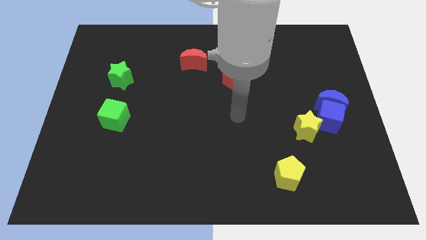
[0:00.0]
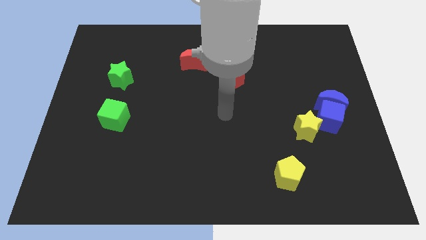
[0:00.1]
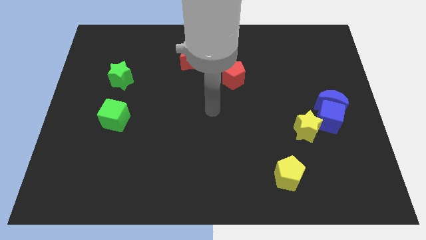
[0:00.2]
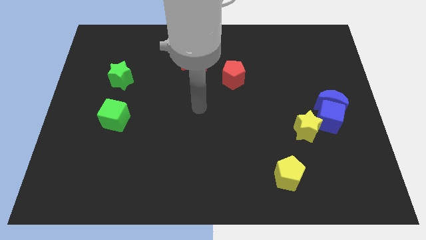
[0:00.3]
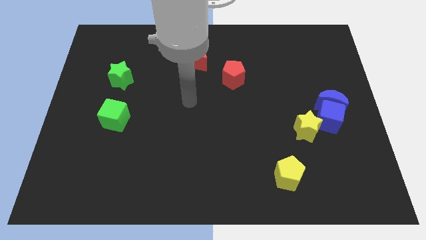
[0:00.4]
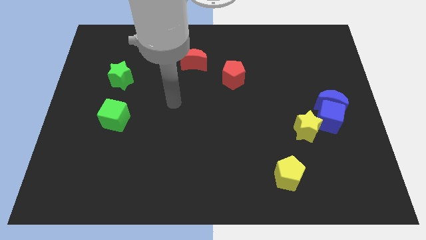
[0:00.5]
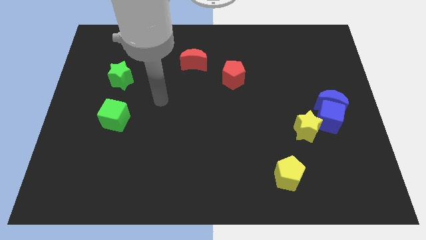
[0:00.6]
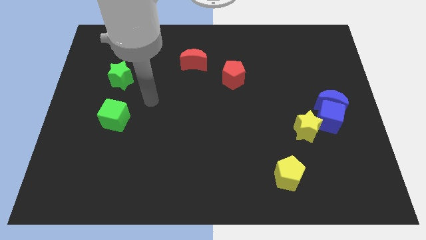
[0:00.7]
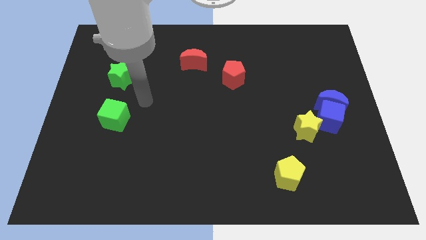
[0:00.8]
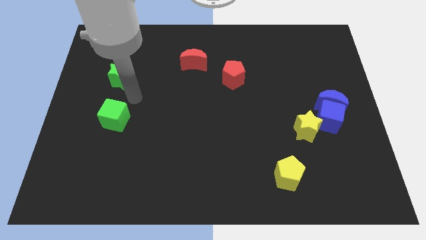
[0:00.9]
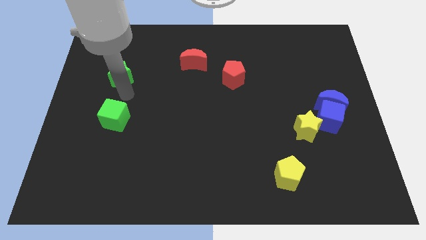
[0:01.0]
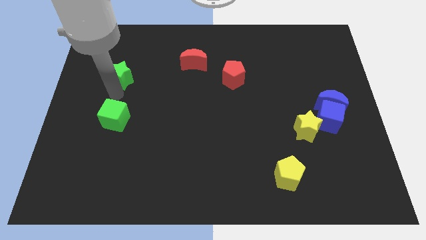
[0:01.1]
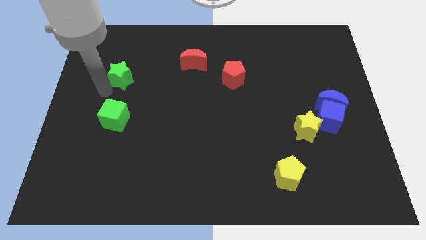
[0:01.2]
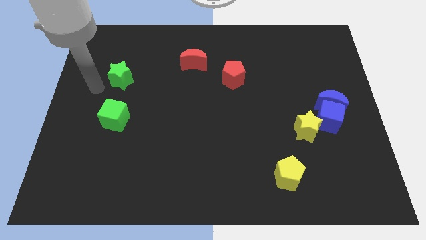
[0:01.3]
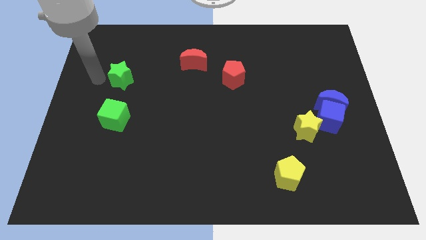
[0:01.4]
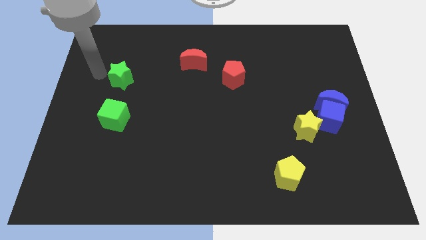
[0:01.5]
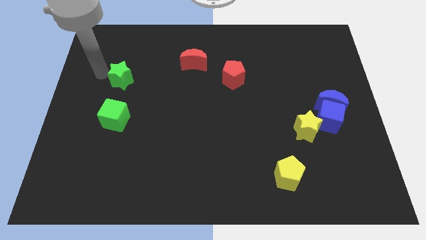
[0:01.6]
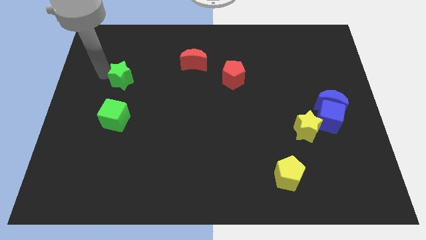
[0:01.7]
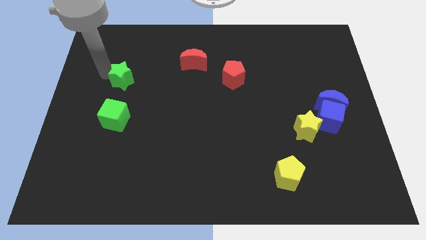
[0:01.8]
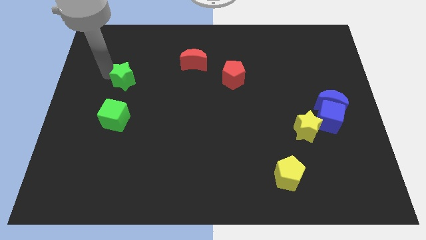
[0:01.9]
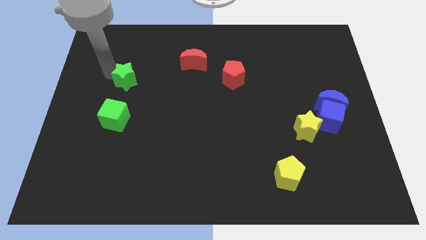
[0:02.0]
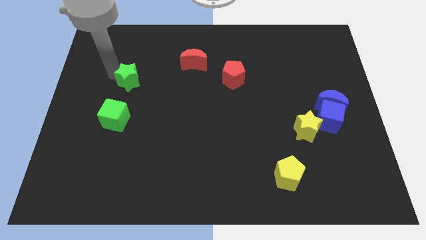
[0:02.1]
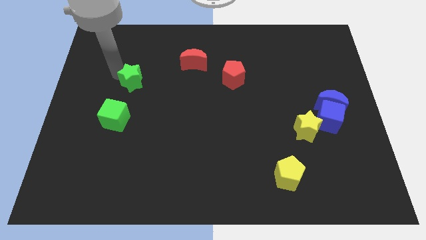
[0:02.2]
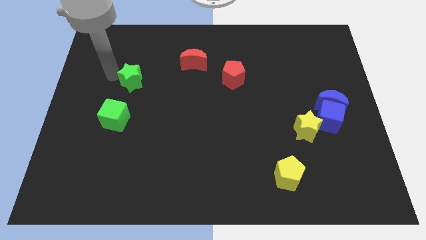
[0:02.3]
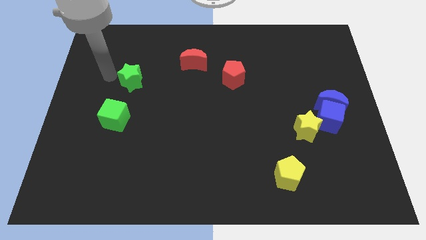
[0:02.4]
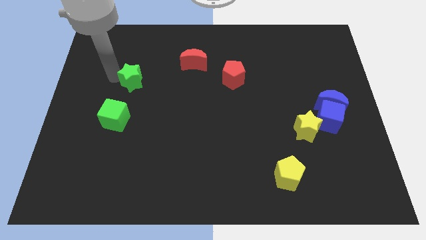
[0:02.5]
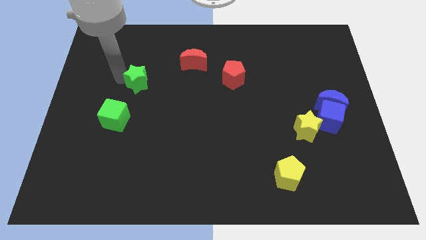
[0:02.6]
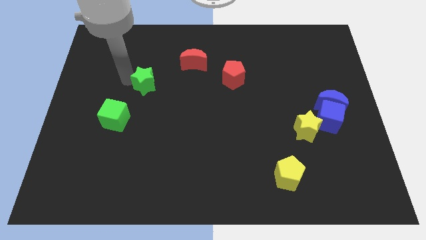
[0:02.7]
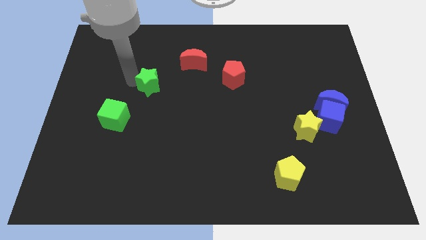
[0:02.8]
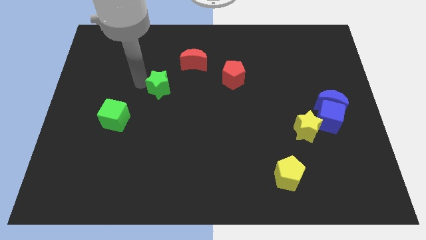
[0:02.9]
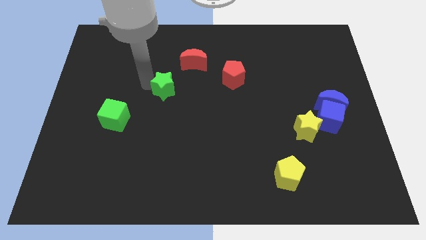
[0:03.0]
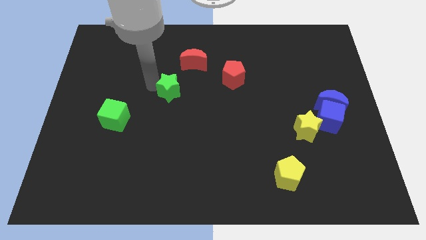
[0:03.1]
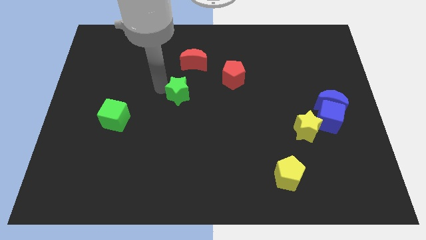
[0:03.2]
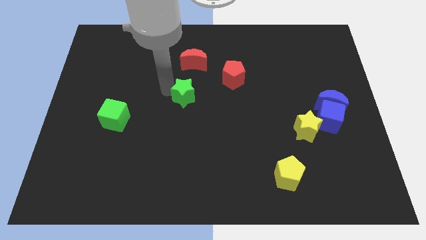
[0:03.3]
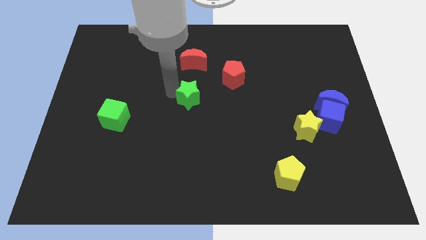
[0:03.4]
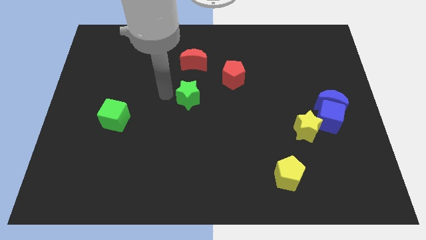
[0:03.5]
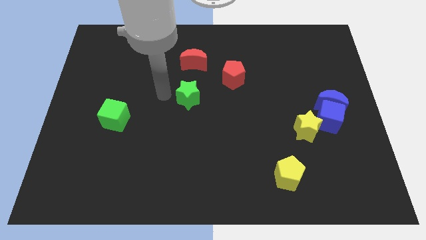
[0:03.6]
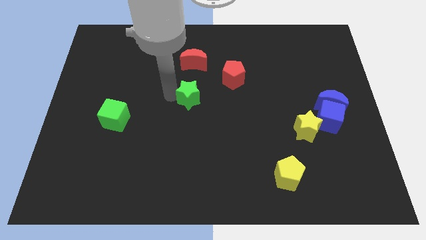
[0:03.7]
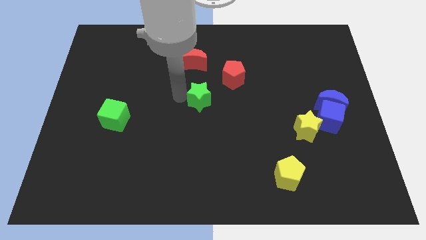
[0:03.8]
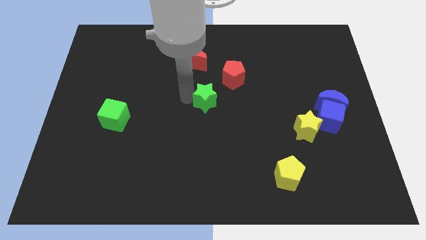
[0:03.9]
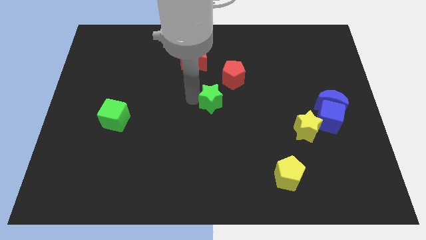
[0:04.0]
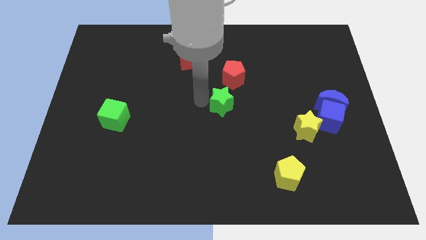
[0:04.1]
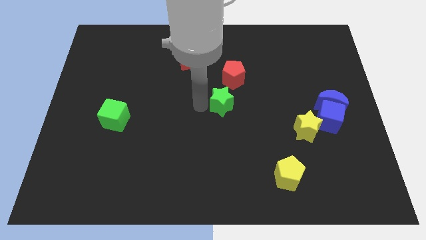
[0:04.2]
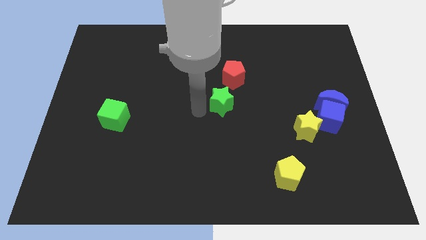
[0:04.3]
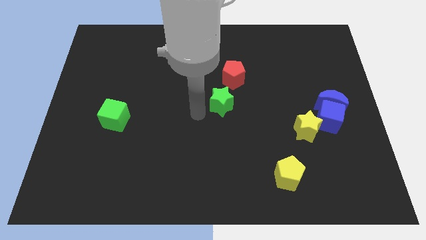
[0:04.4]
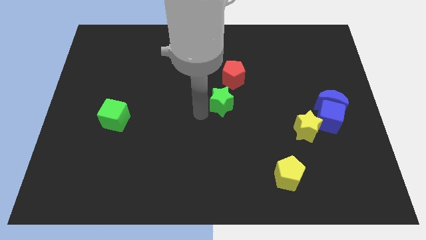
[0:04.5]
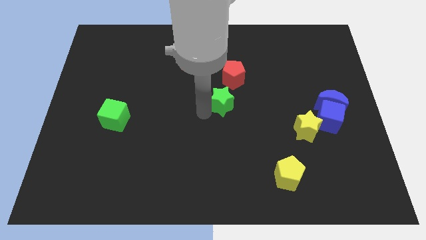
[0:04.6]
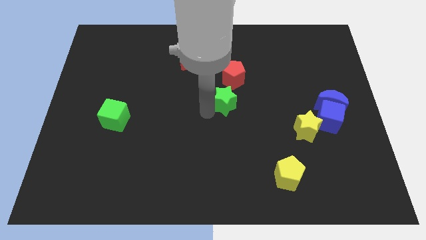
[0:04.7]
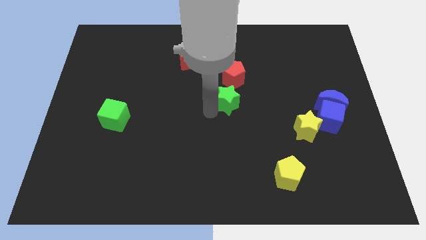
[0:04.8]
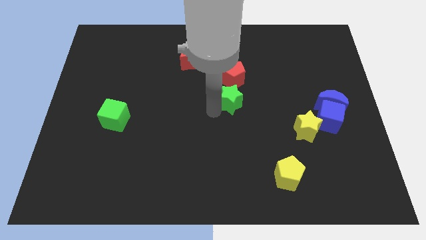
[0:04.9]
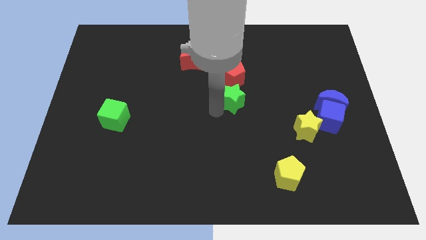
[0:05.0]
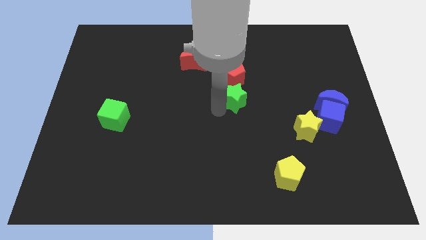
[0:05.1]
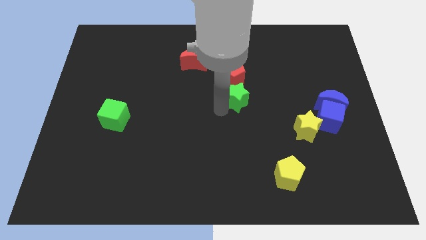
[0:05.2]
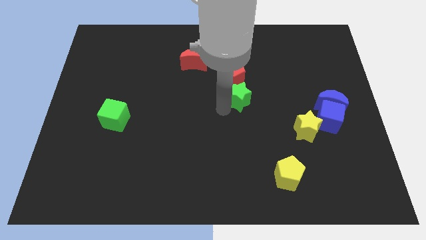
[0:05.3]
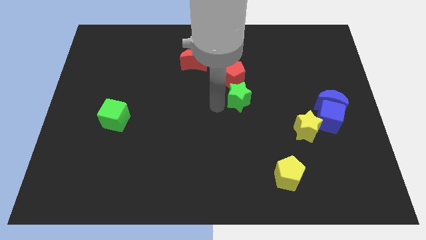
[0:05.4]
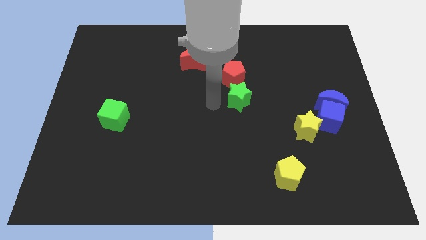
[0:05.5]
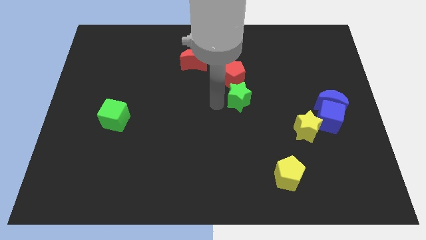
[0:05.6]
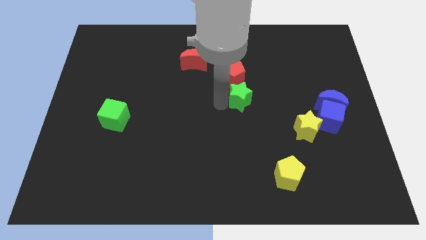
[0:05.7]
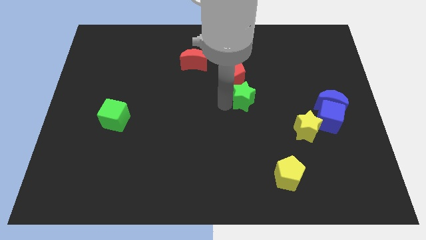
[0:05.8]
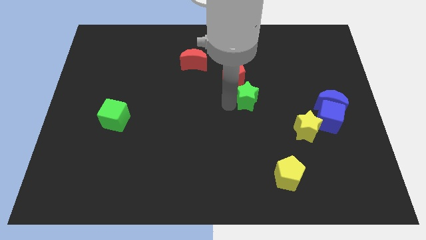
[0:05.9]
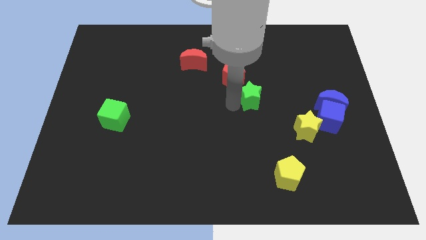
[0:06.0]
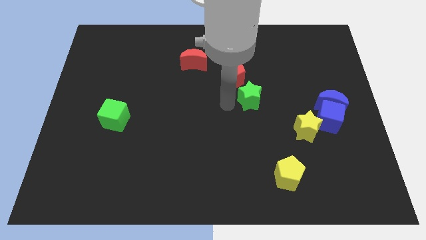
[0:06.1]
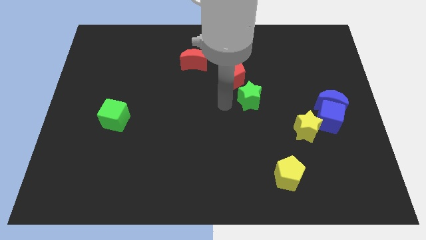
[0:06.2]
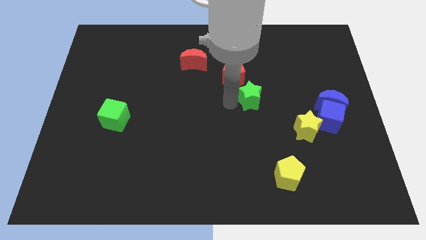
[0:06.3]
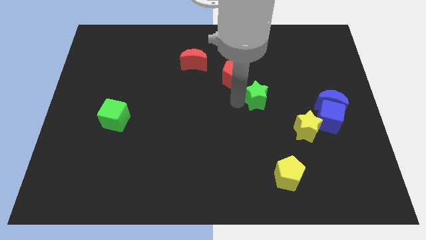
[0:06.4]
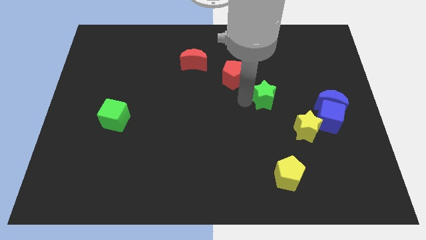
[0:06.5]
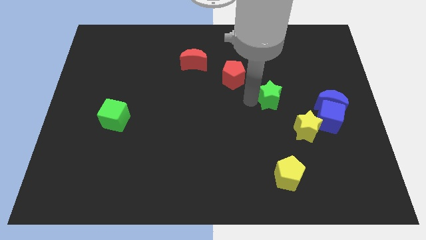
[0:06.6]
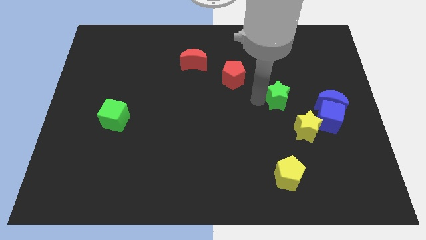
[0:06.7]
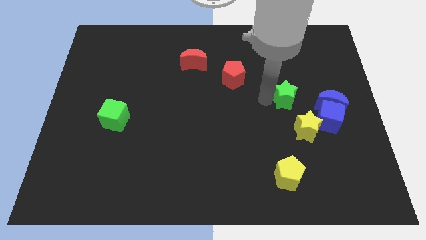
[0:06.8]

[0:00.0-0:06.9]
slide the green star above the yellow star
